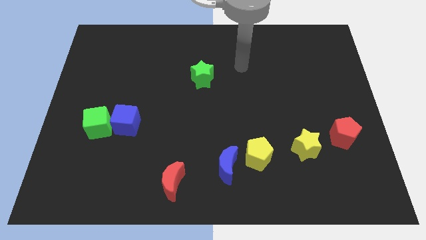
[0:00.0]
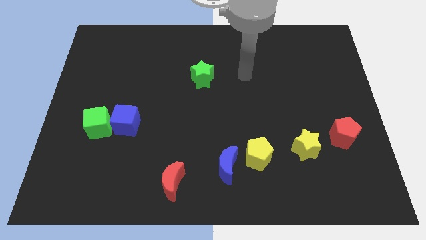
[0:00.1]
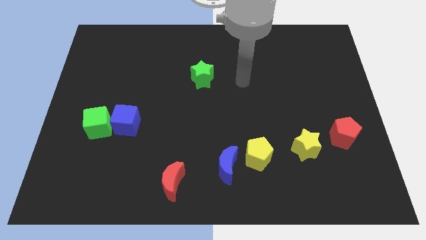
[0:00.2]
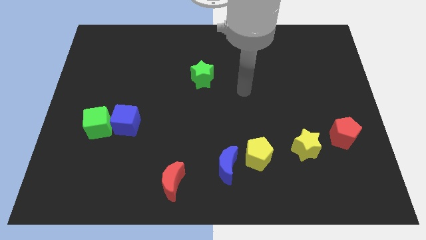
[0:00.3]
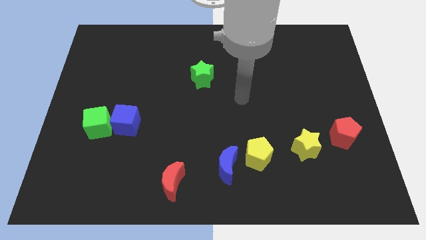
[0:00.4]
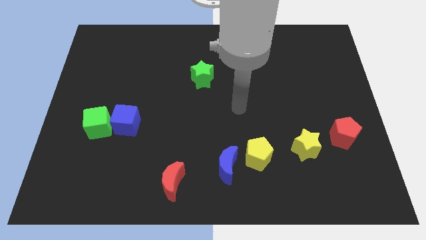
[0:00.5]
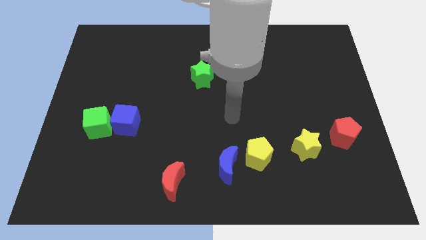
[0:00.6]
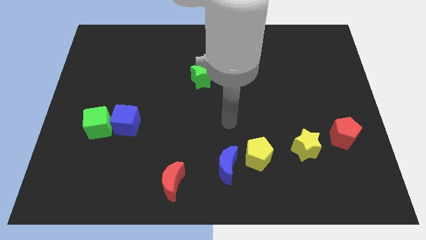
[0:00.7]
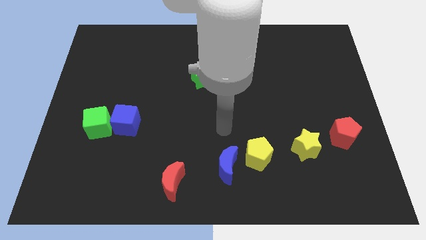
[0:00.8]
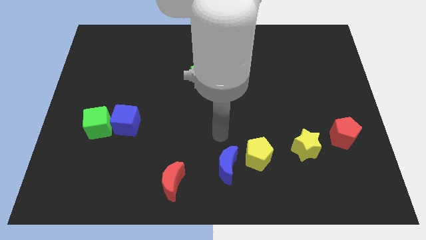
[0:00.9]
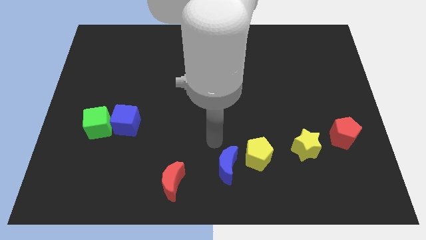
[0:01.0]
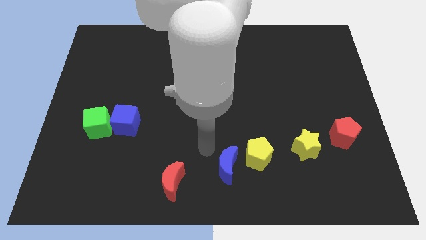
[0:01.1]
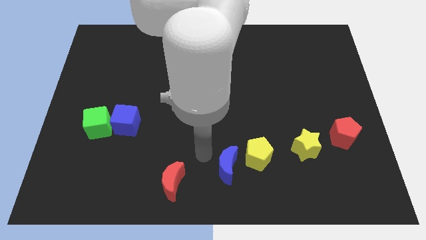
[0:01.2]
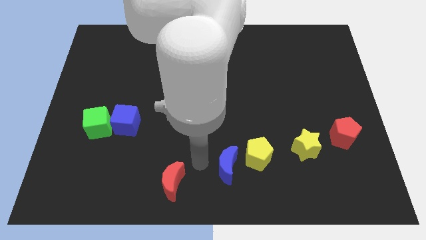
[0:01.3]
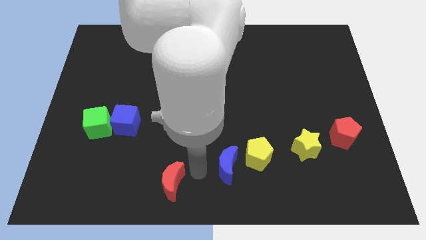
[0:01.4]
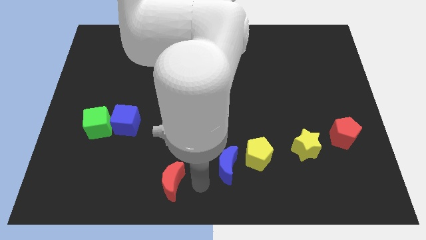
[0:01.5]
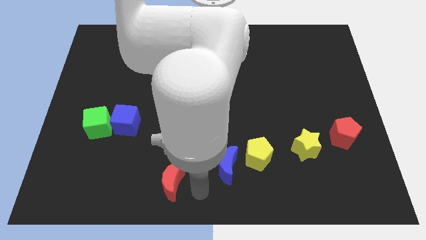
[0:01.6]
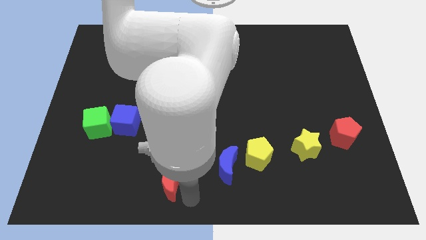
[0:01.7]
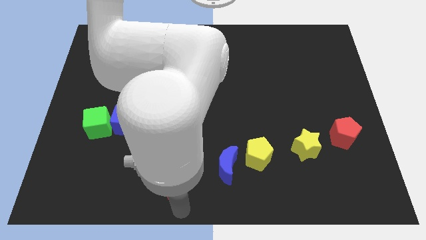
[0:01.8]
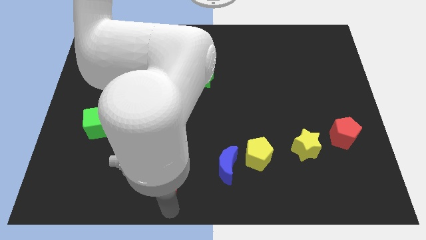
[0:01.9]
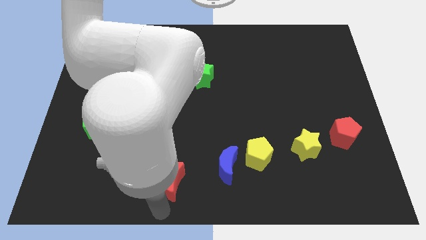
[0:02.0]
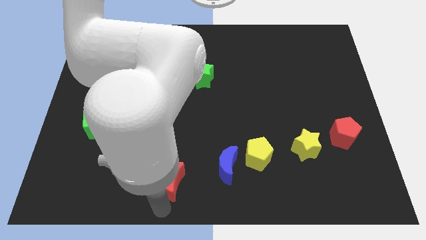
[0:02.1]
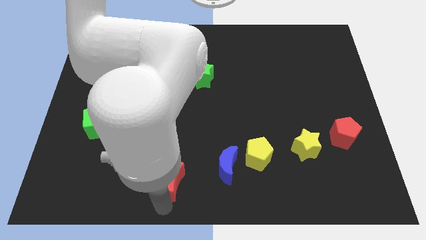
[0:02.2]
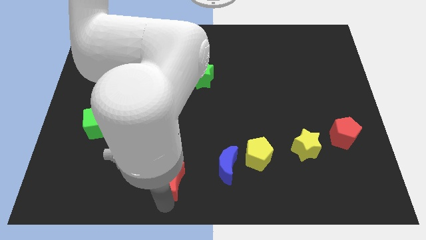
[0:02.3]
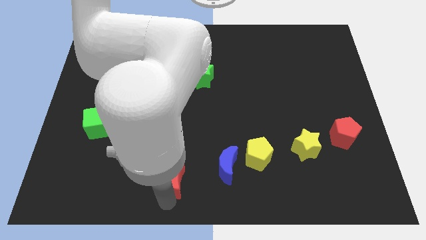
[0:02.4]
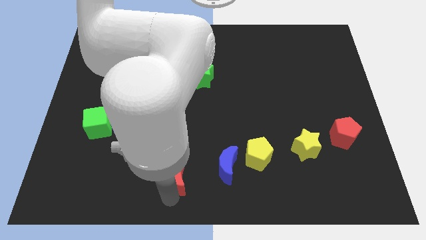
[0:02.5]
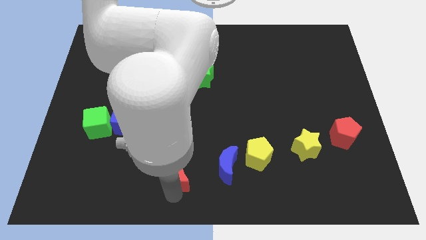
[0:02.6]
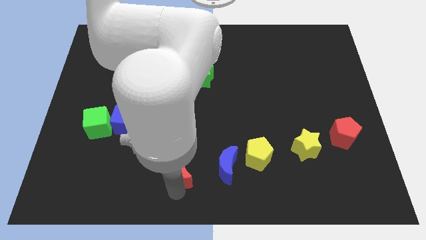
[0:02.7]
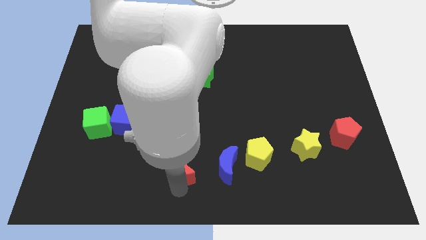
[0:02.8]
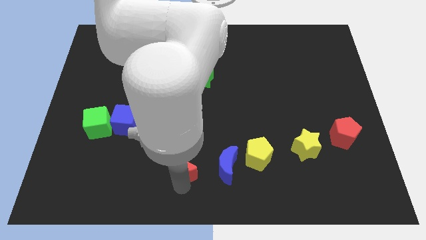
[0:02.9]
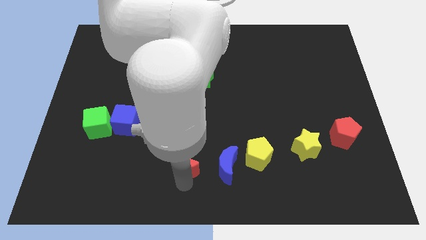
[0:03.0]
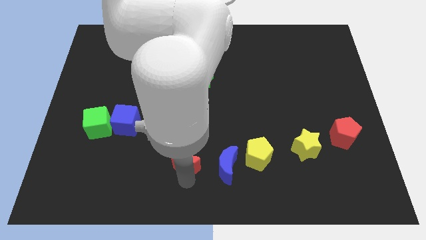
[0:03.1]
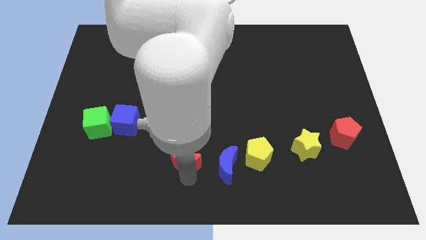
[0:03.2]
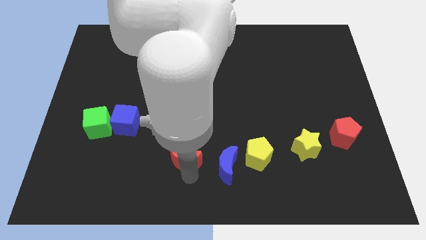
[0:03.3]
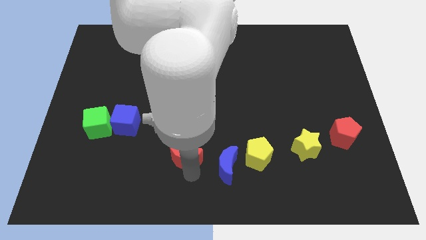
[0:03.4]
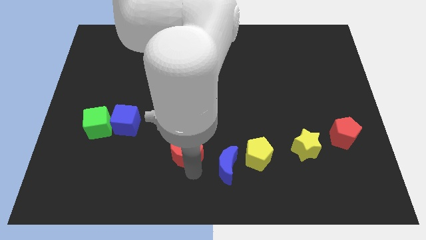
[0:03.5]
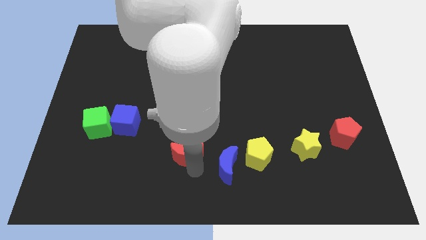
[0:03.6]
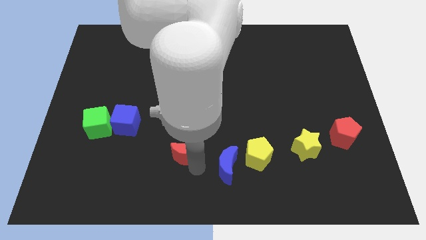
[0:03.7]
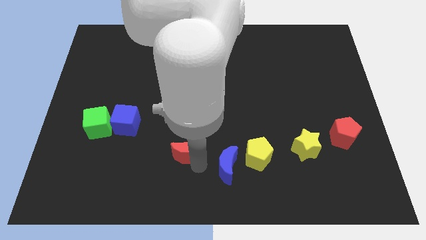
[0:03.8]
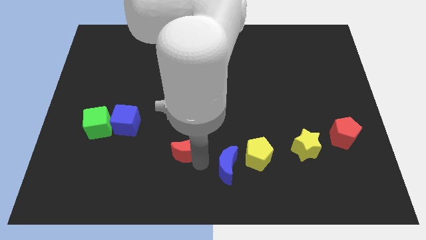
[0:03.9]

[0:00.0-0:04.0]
slightly push the red moon up

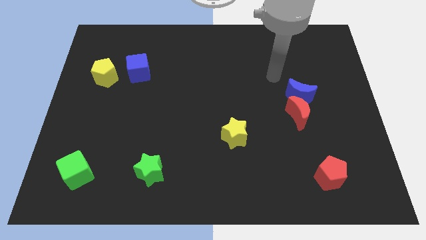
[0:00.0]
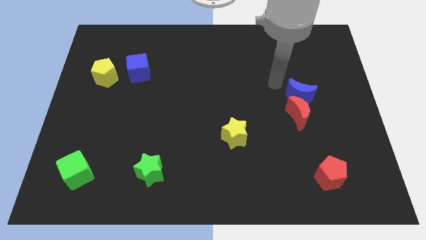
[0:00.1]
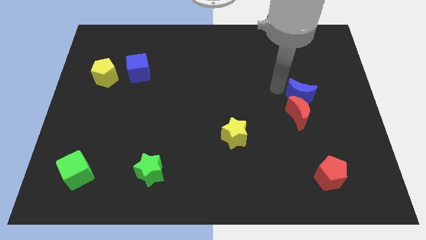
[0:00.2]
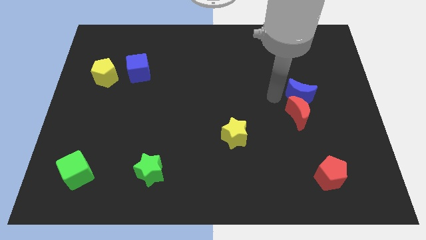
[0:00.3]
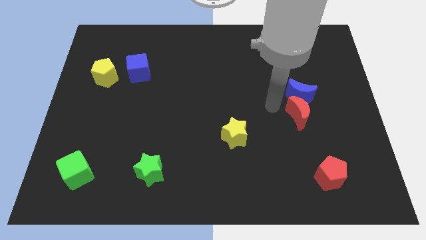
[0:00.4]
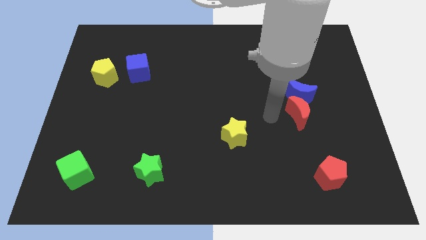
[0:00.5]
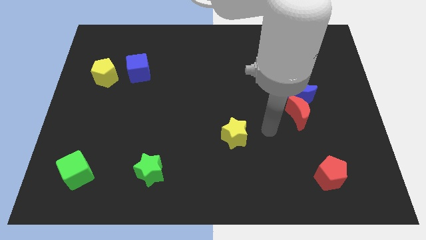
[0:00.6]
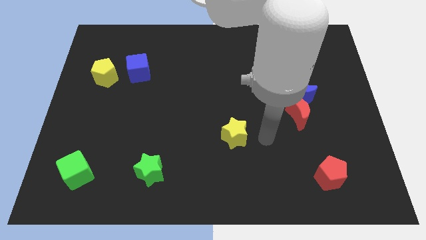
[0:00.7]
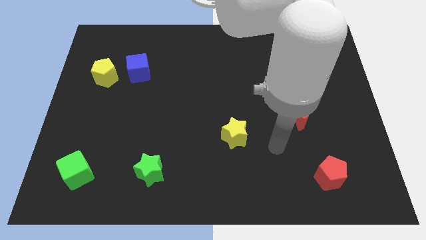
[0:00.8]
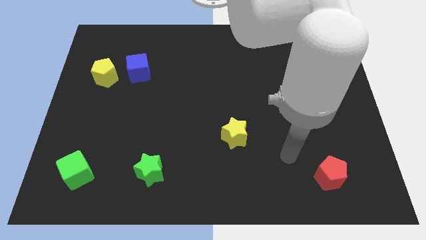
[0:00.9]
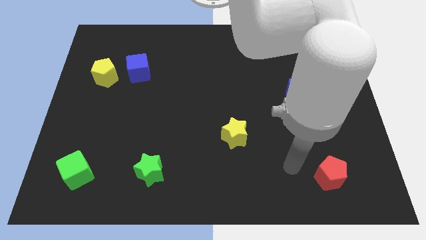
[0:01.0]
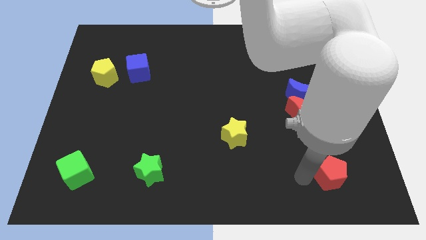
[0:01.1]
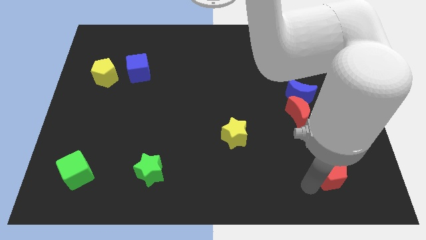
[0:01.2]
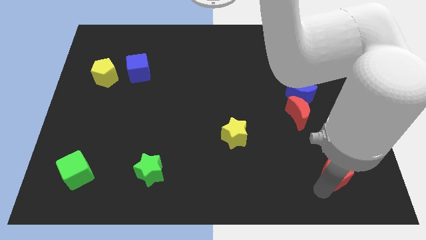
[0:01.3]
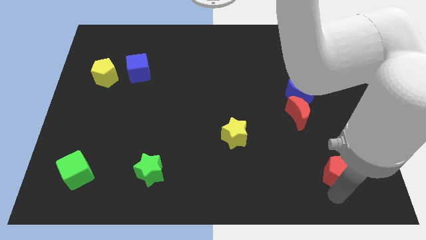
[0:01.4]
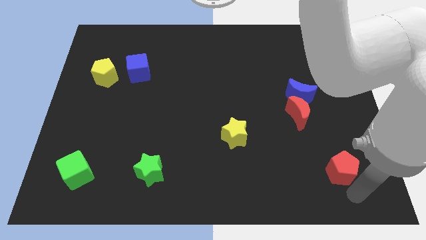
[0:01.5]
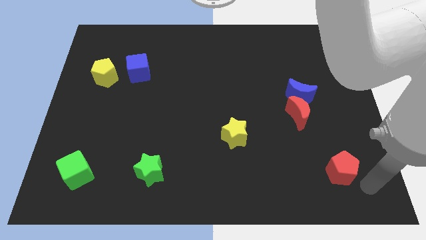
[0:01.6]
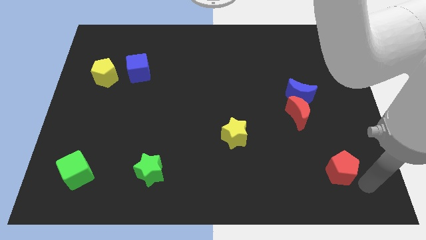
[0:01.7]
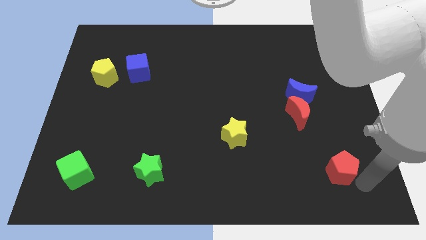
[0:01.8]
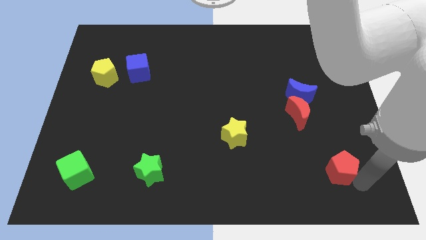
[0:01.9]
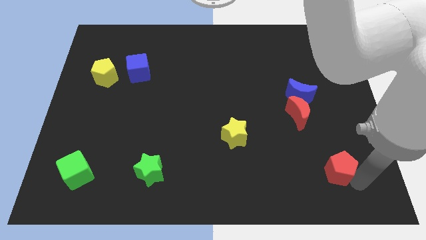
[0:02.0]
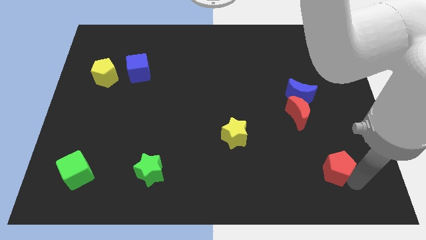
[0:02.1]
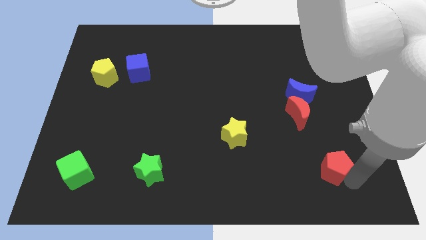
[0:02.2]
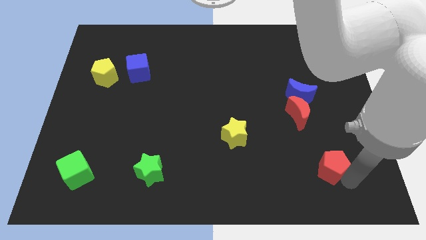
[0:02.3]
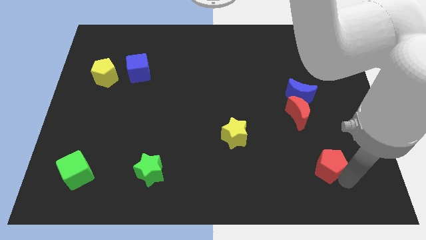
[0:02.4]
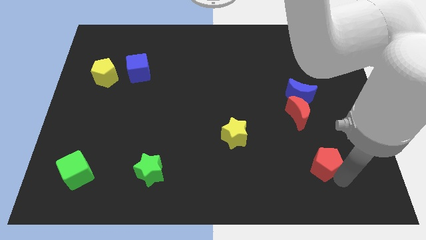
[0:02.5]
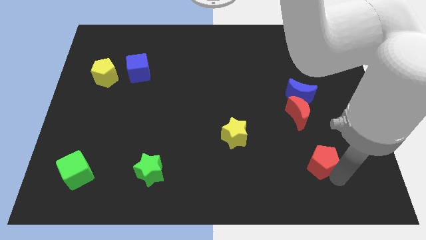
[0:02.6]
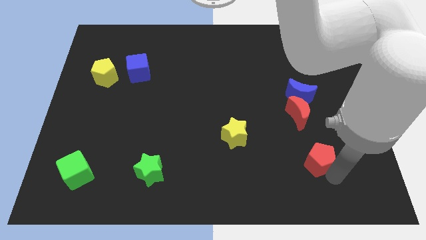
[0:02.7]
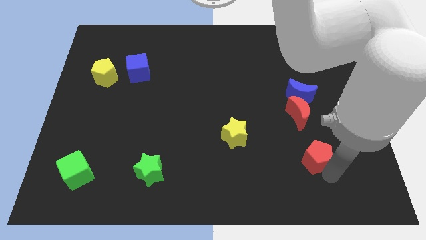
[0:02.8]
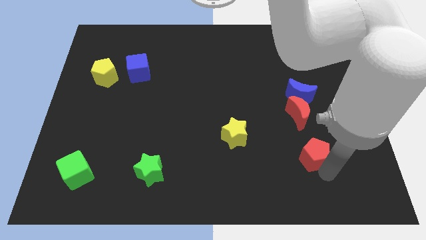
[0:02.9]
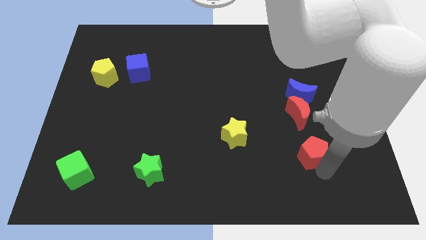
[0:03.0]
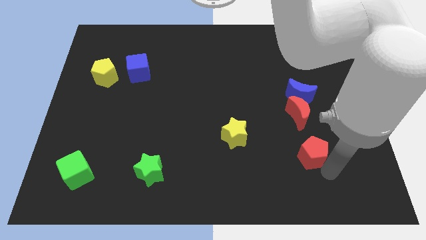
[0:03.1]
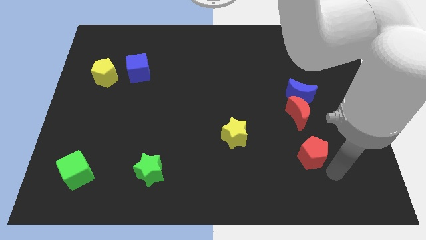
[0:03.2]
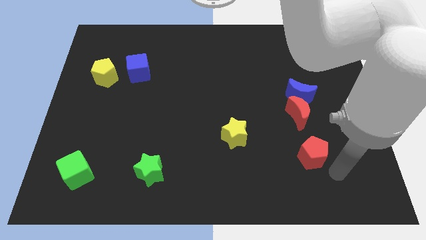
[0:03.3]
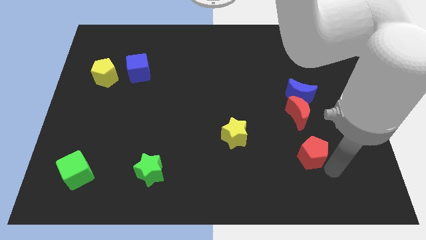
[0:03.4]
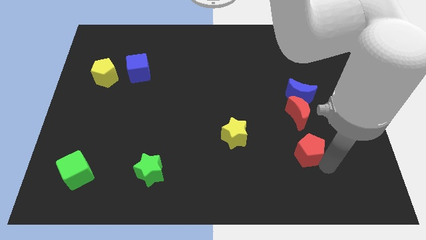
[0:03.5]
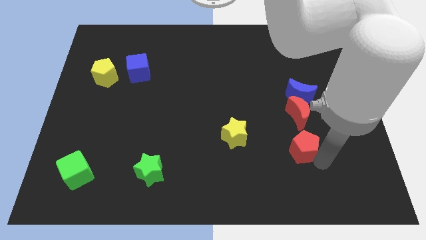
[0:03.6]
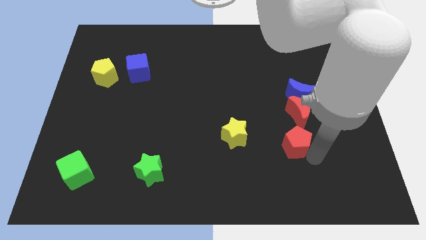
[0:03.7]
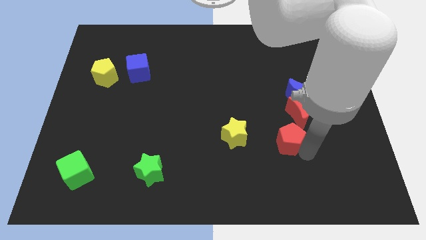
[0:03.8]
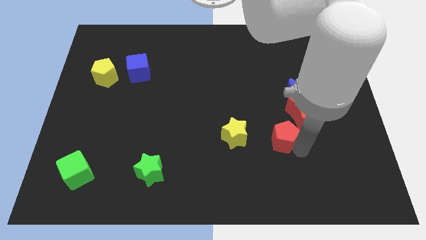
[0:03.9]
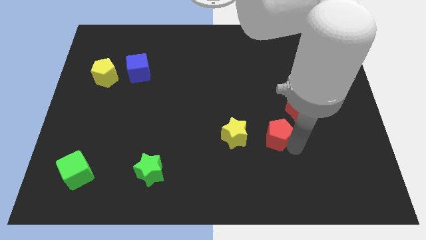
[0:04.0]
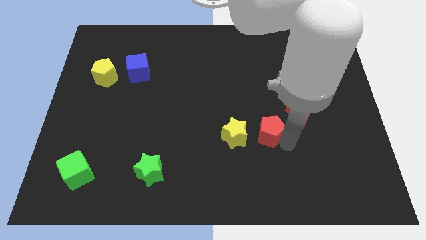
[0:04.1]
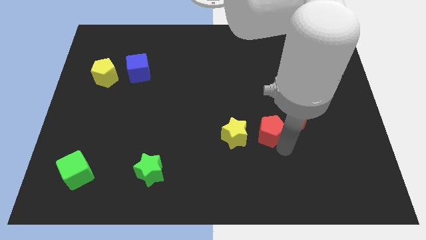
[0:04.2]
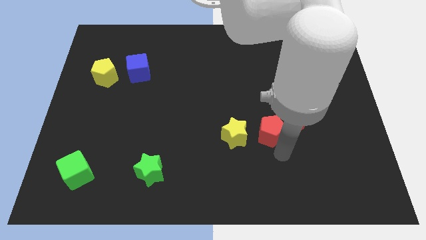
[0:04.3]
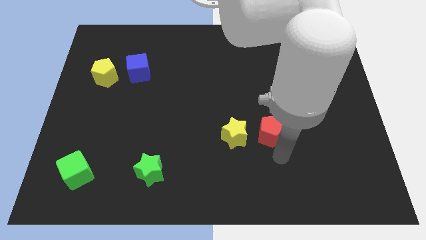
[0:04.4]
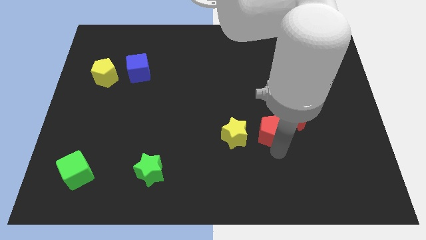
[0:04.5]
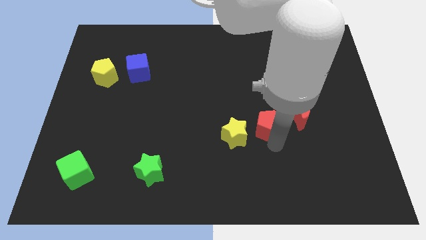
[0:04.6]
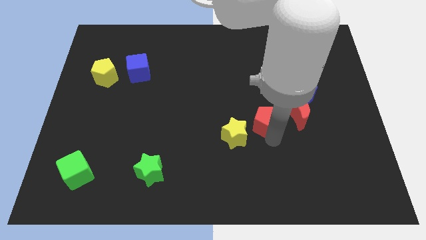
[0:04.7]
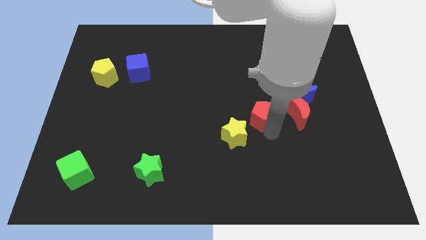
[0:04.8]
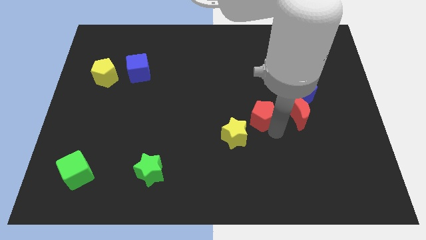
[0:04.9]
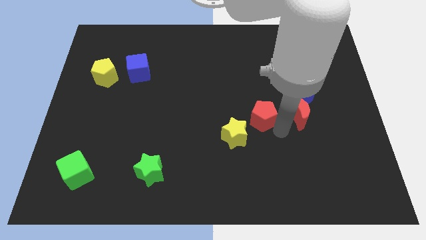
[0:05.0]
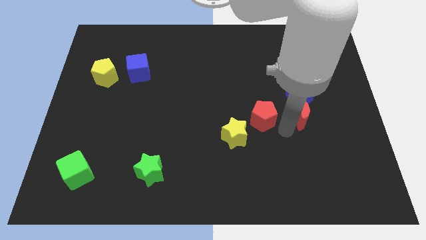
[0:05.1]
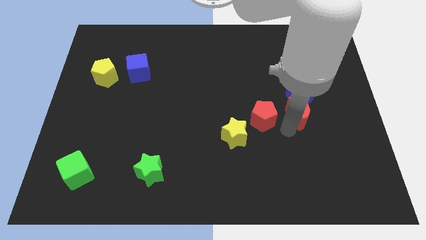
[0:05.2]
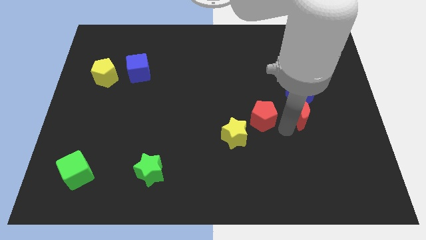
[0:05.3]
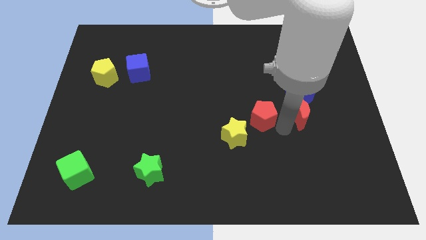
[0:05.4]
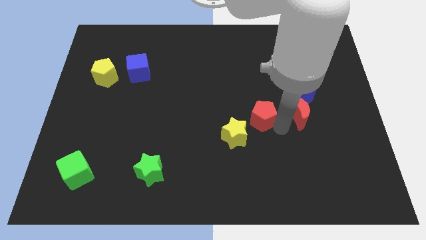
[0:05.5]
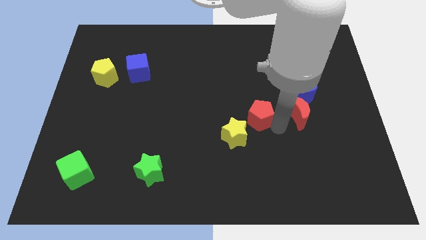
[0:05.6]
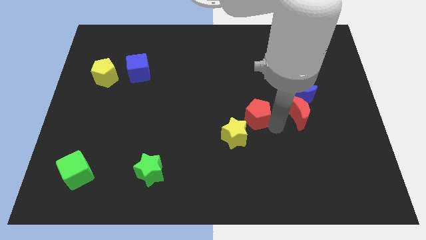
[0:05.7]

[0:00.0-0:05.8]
move the red pentagon up and then left
